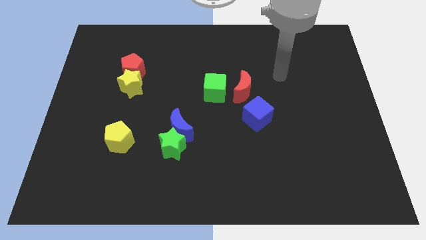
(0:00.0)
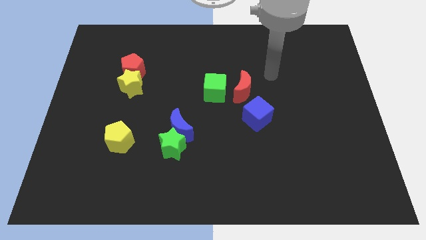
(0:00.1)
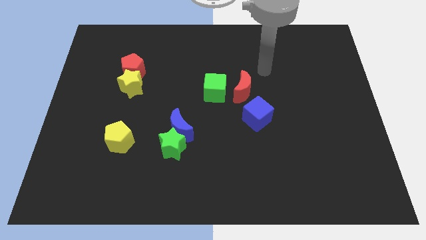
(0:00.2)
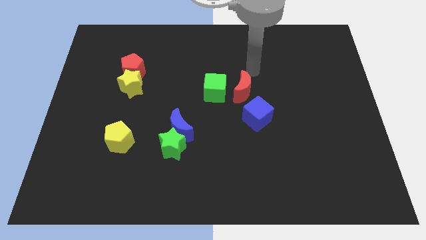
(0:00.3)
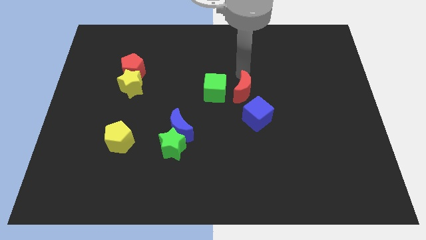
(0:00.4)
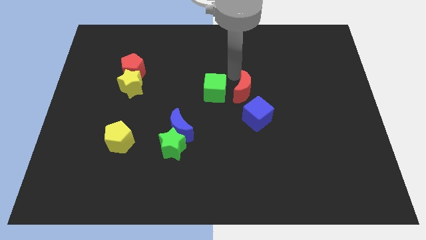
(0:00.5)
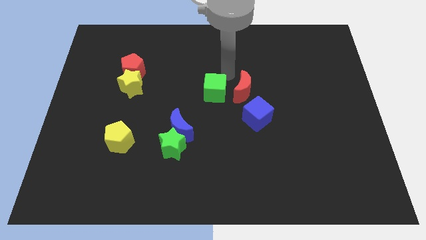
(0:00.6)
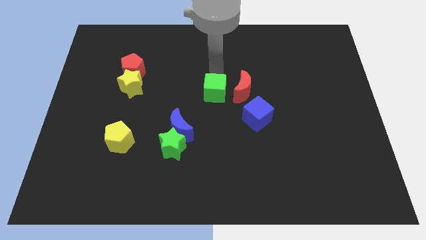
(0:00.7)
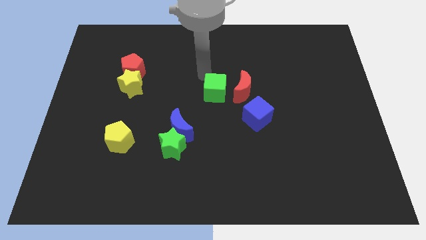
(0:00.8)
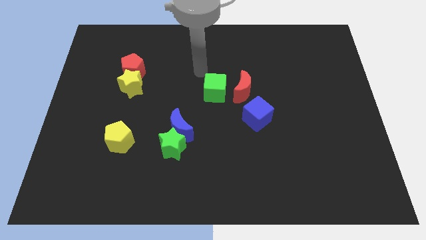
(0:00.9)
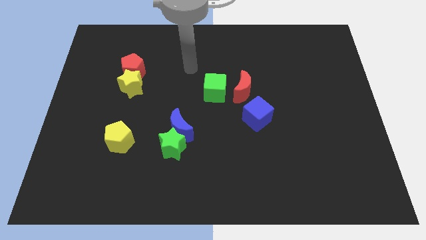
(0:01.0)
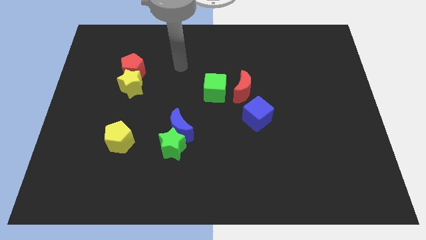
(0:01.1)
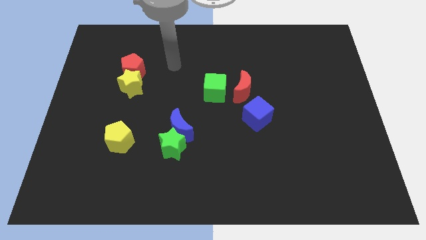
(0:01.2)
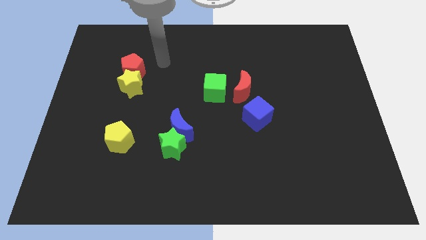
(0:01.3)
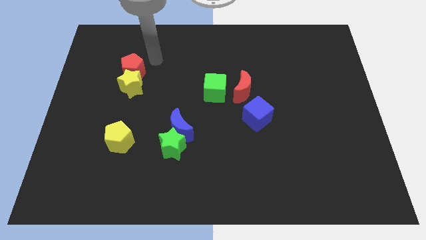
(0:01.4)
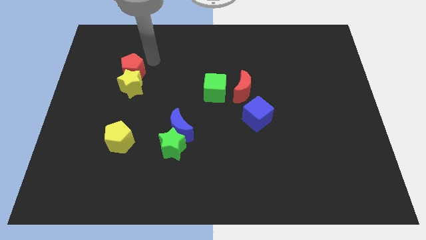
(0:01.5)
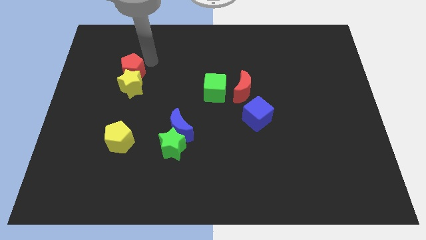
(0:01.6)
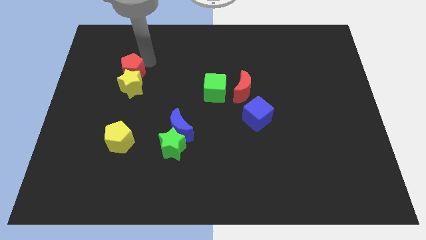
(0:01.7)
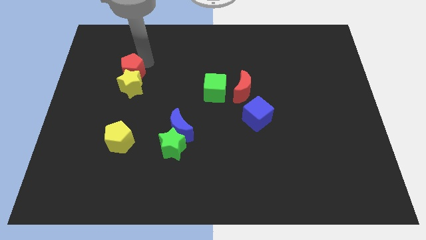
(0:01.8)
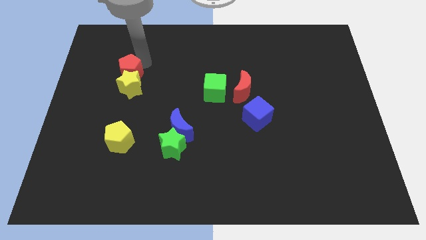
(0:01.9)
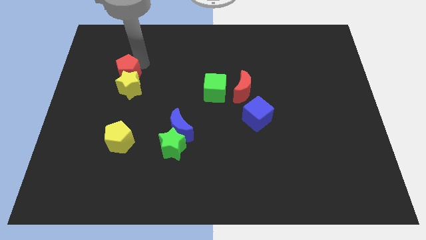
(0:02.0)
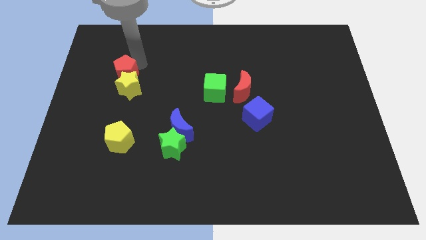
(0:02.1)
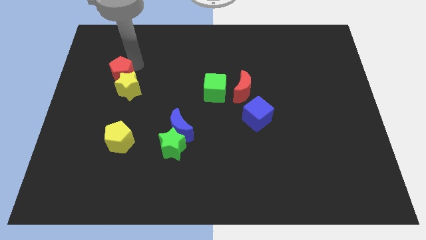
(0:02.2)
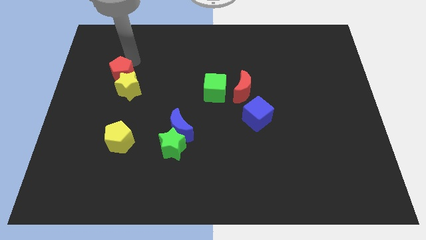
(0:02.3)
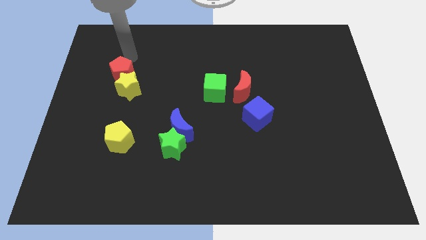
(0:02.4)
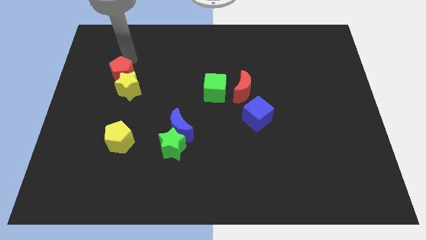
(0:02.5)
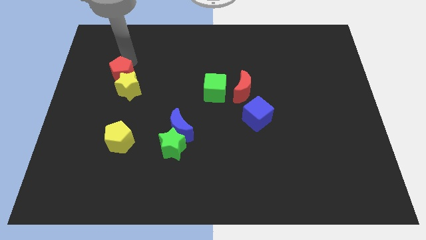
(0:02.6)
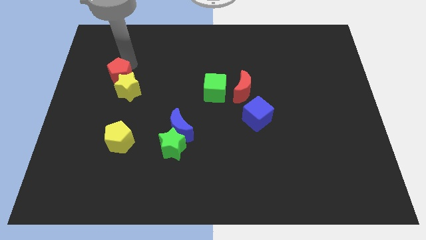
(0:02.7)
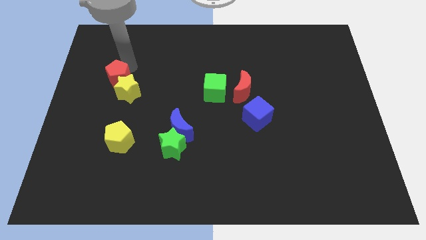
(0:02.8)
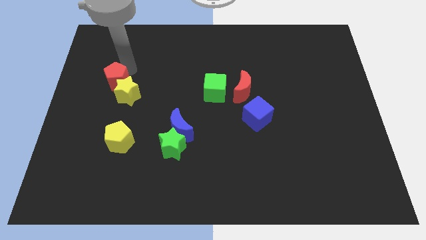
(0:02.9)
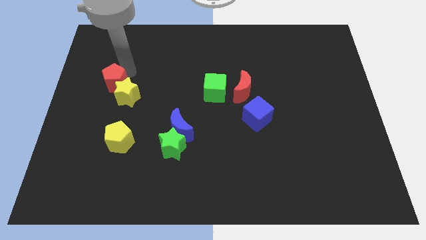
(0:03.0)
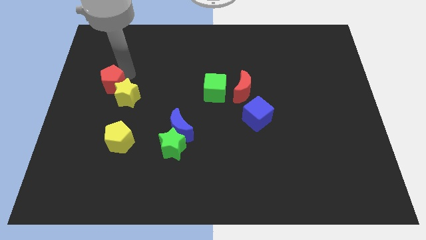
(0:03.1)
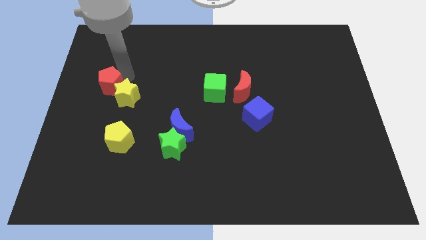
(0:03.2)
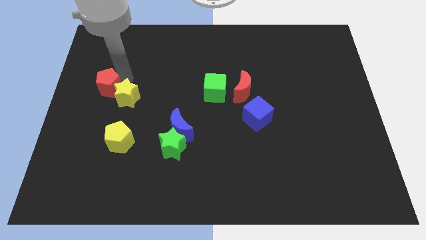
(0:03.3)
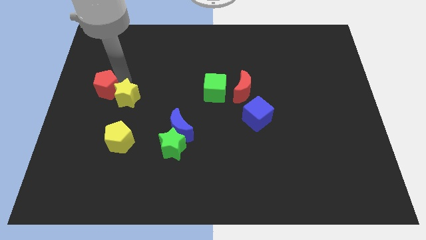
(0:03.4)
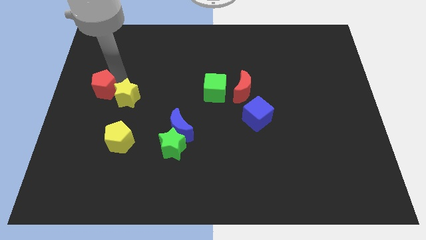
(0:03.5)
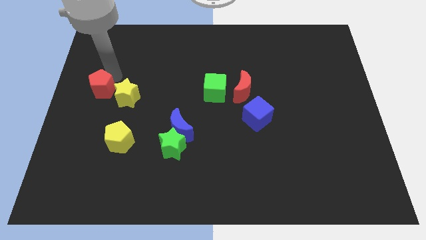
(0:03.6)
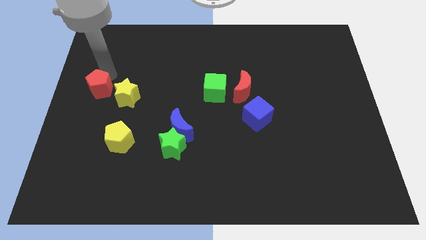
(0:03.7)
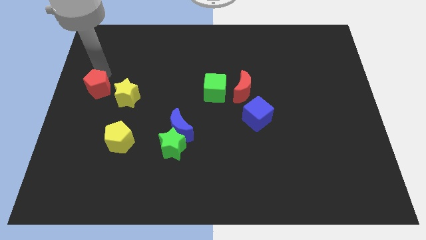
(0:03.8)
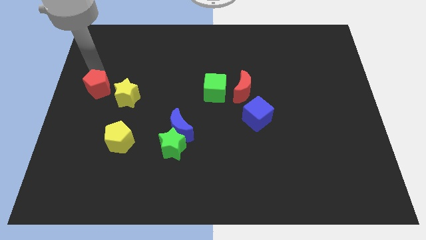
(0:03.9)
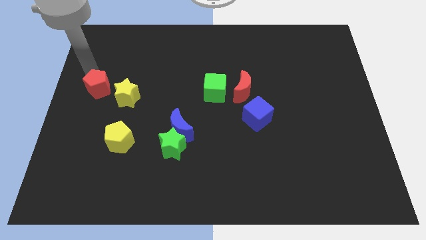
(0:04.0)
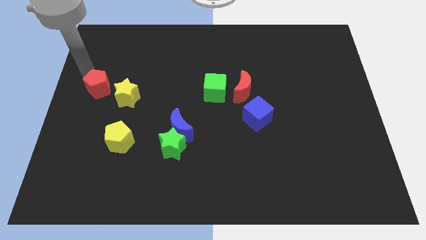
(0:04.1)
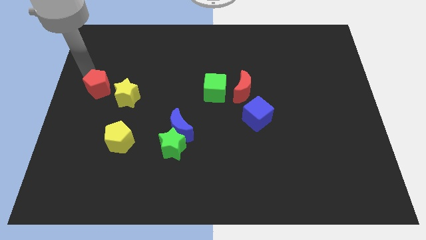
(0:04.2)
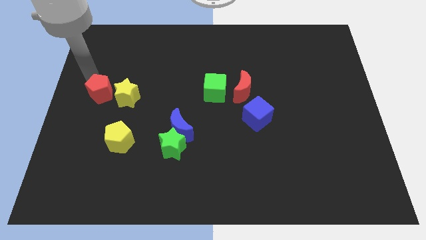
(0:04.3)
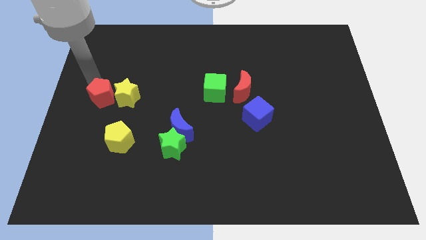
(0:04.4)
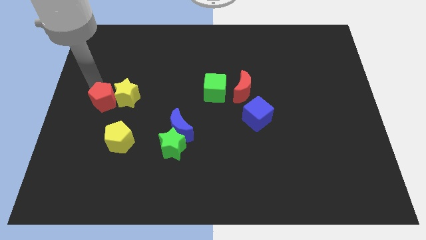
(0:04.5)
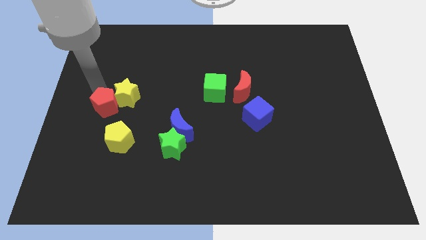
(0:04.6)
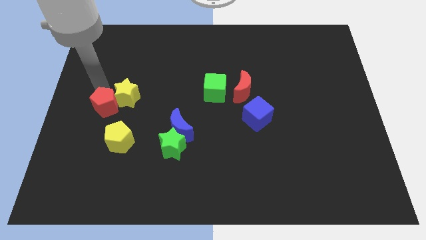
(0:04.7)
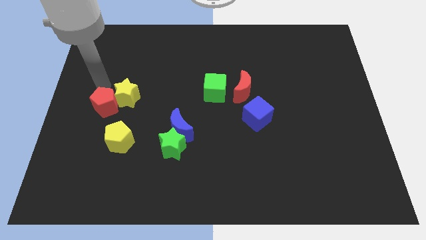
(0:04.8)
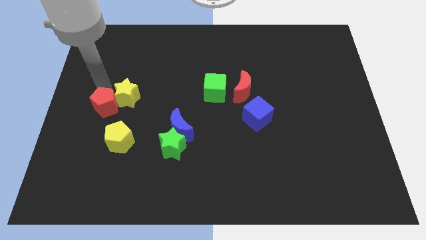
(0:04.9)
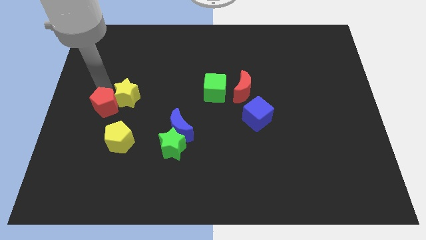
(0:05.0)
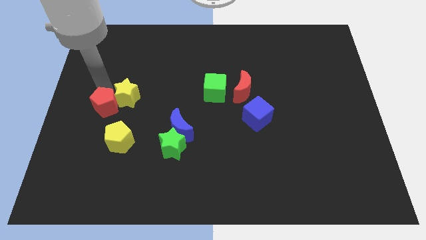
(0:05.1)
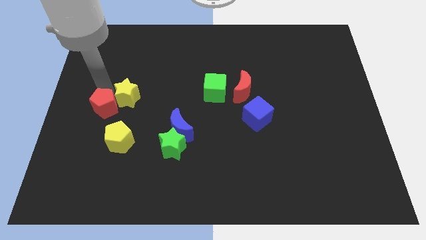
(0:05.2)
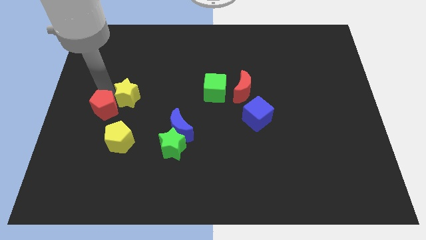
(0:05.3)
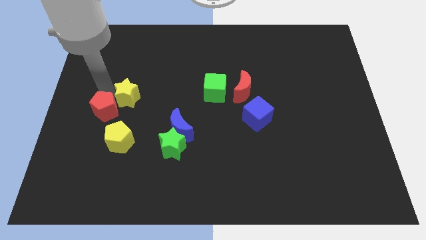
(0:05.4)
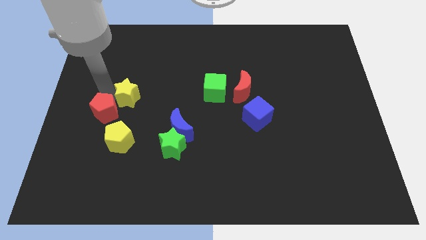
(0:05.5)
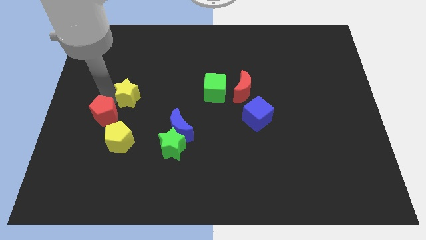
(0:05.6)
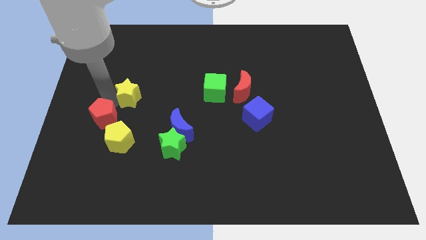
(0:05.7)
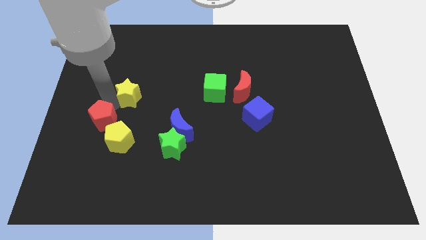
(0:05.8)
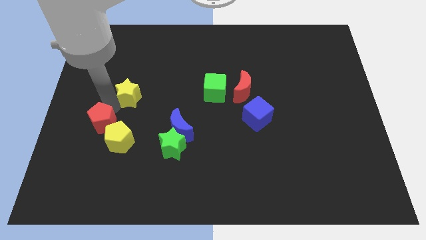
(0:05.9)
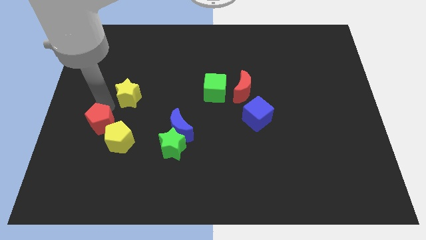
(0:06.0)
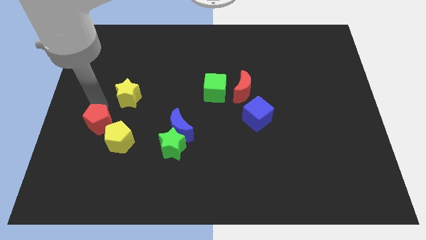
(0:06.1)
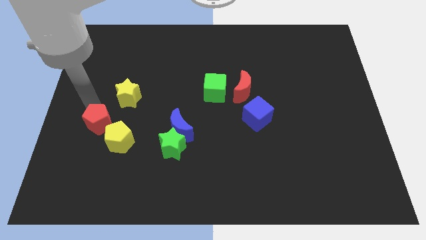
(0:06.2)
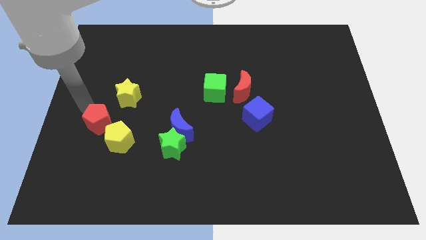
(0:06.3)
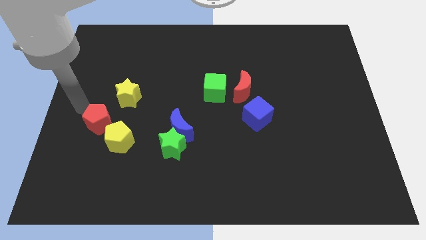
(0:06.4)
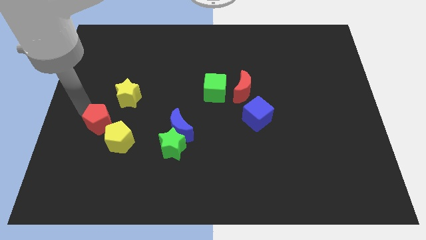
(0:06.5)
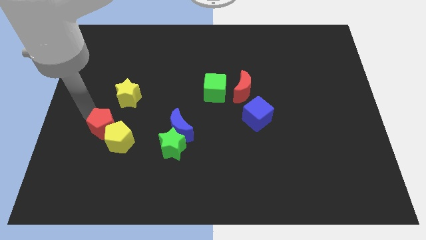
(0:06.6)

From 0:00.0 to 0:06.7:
slide the red pentagon next to the yellow pentagon
